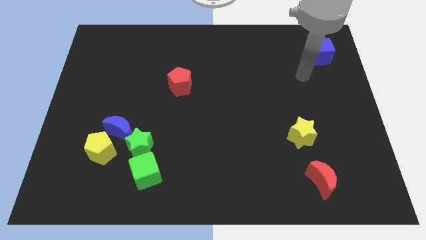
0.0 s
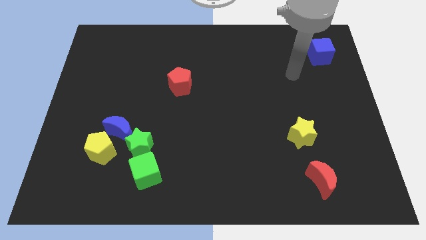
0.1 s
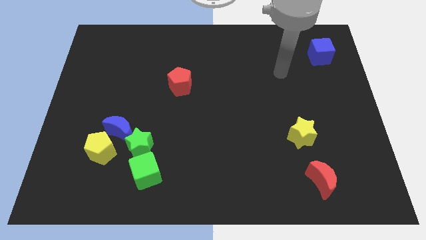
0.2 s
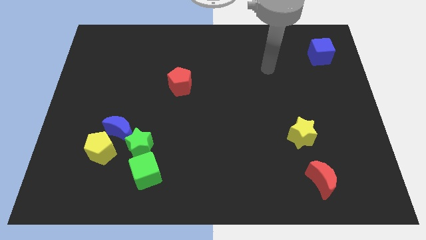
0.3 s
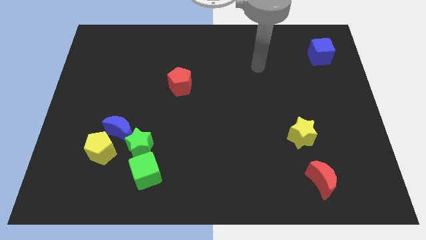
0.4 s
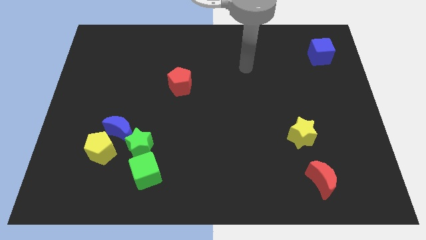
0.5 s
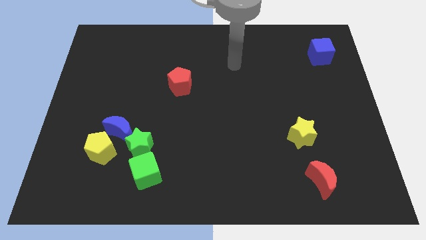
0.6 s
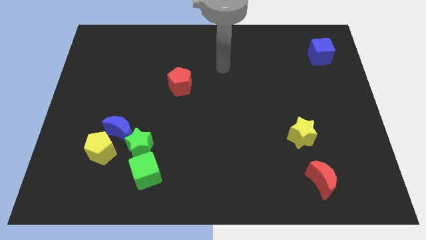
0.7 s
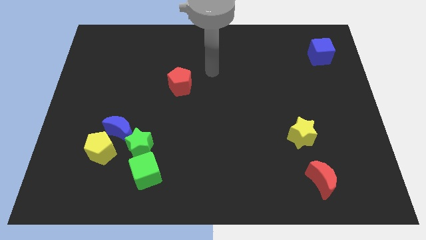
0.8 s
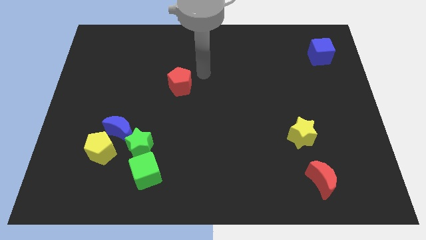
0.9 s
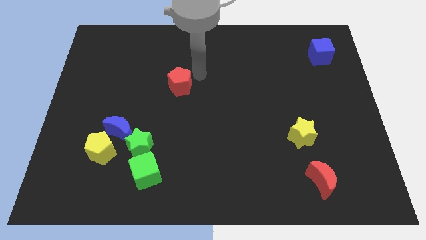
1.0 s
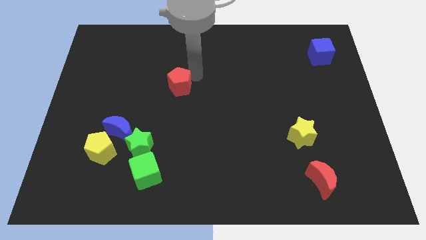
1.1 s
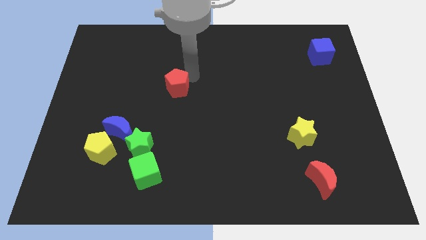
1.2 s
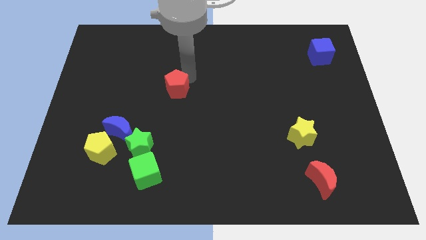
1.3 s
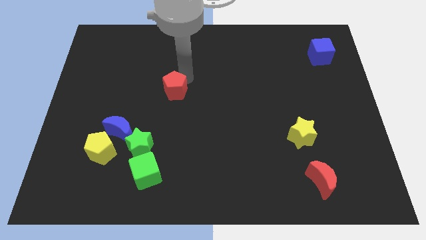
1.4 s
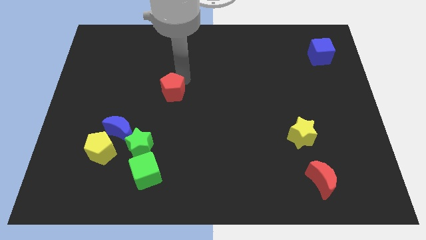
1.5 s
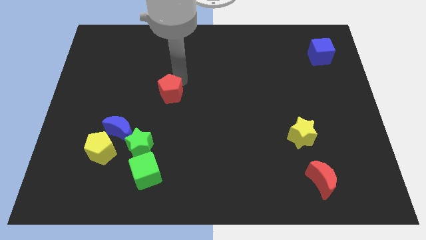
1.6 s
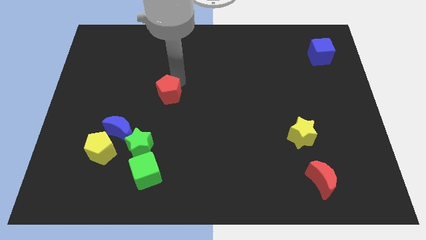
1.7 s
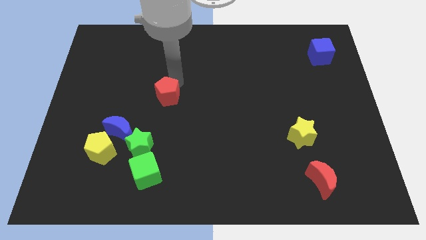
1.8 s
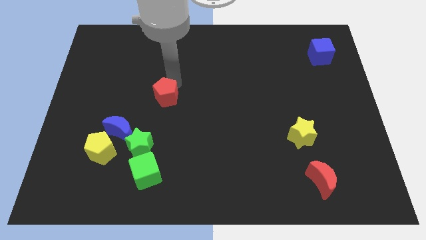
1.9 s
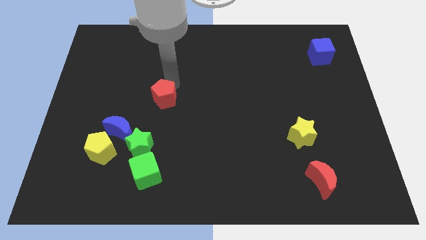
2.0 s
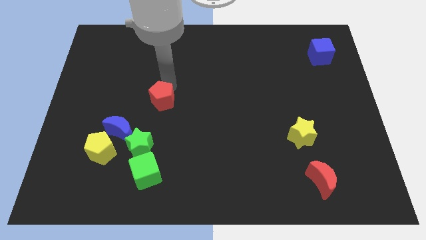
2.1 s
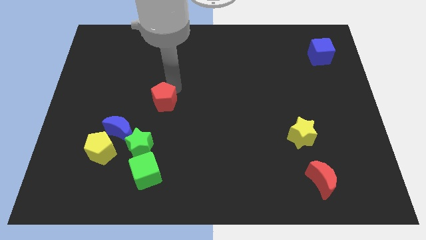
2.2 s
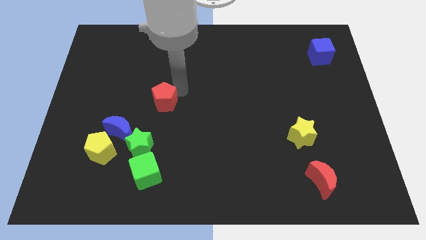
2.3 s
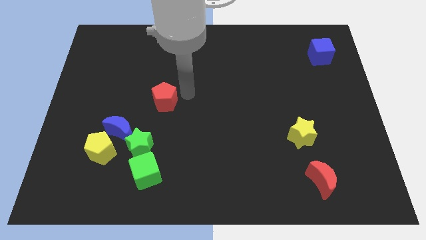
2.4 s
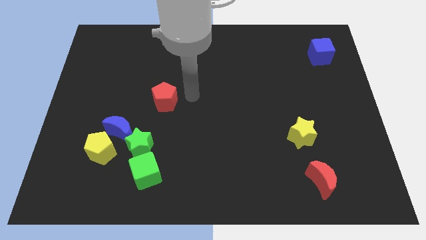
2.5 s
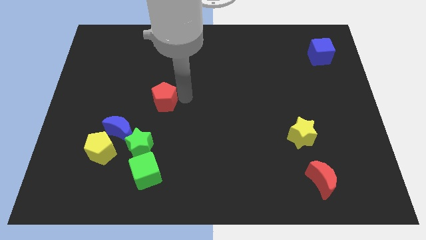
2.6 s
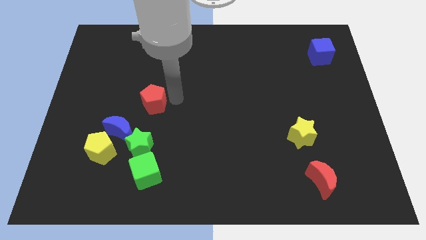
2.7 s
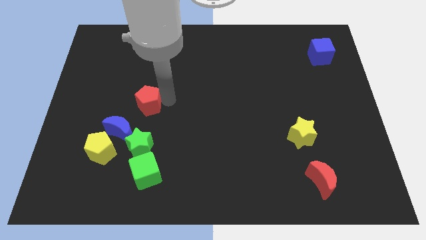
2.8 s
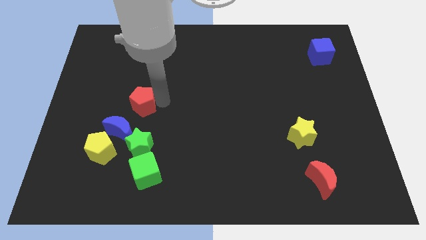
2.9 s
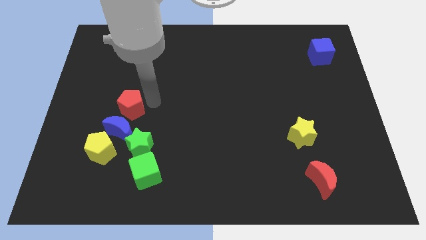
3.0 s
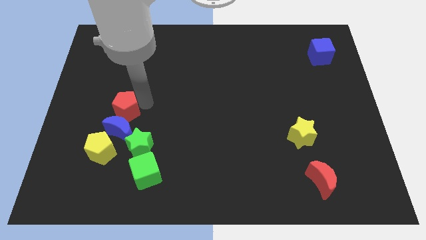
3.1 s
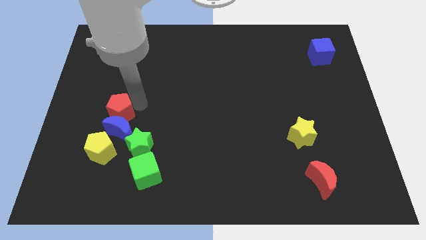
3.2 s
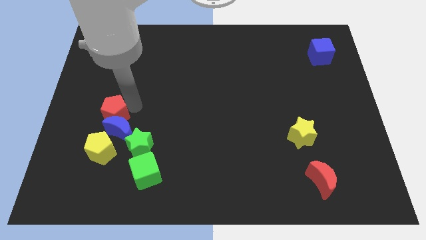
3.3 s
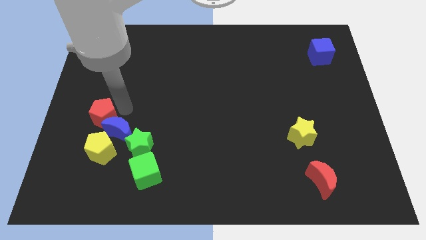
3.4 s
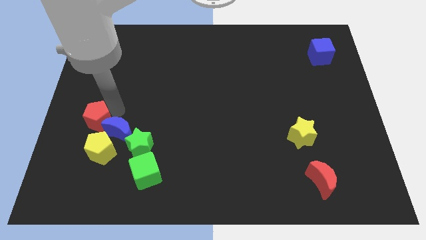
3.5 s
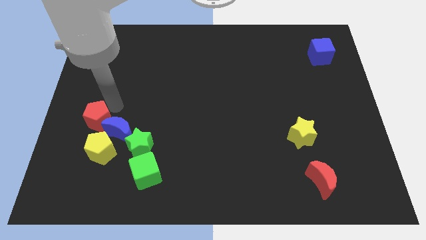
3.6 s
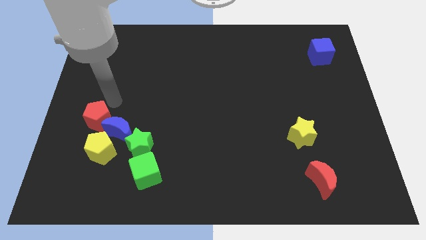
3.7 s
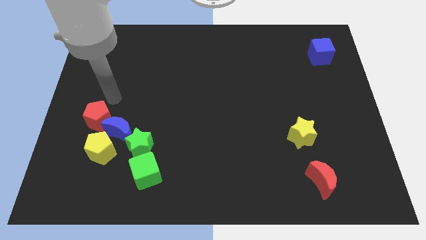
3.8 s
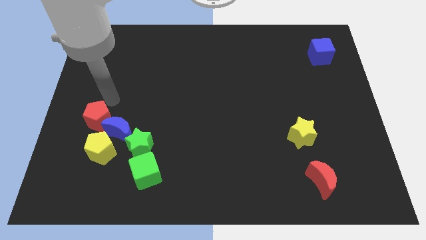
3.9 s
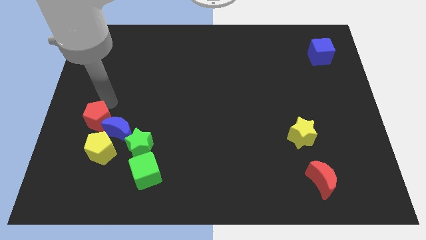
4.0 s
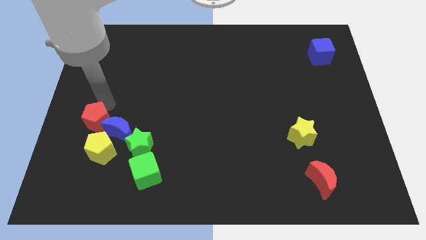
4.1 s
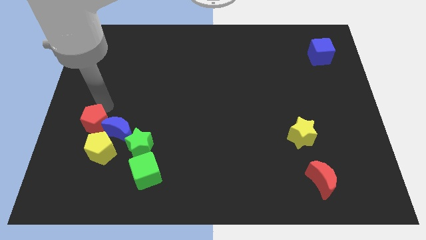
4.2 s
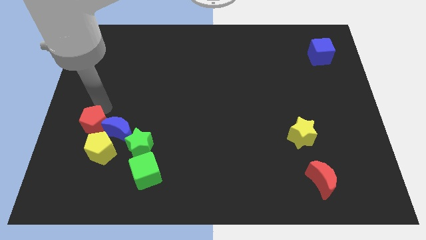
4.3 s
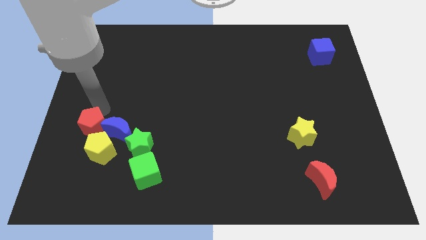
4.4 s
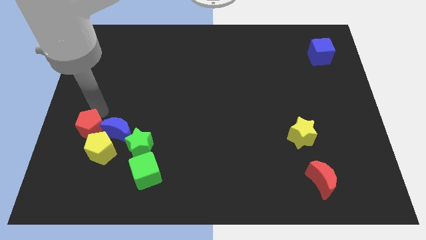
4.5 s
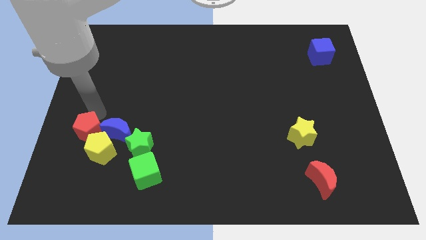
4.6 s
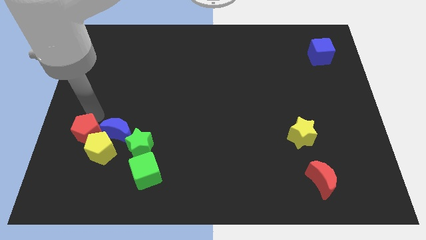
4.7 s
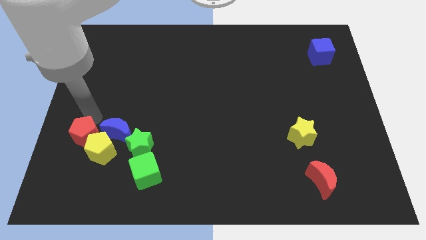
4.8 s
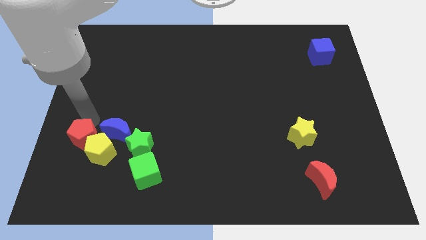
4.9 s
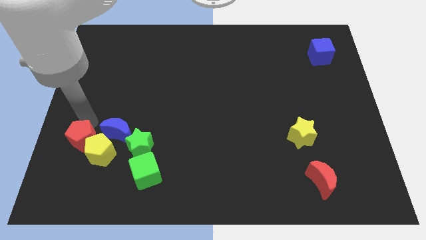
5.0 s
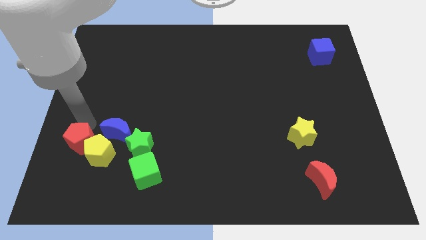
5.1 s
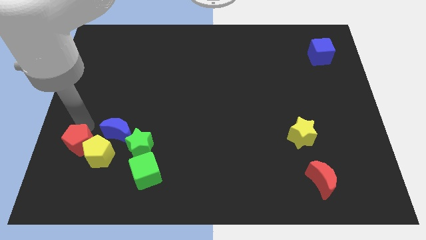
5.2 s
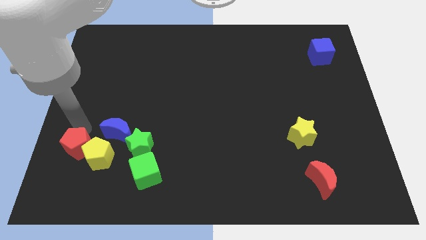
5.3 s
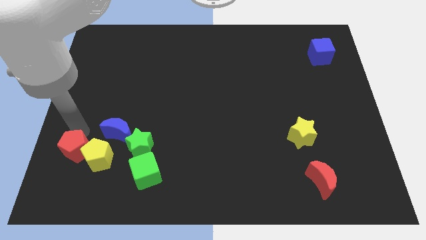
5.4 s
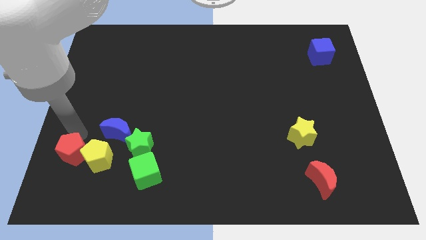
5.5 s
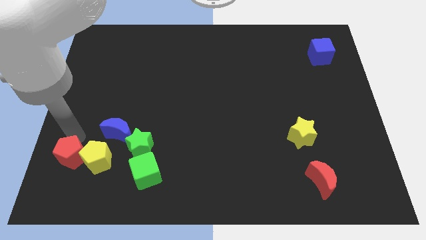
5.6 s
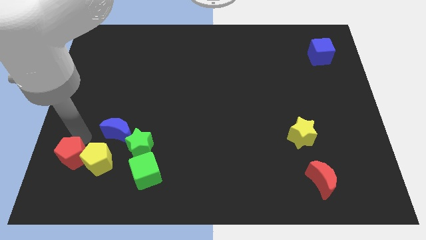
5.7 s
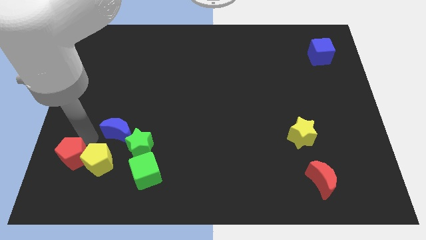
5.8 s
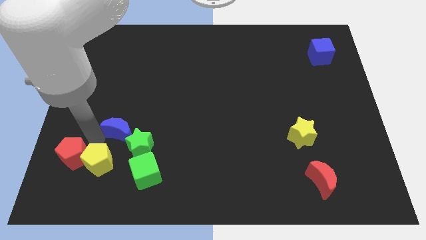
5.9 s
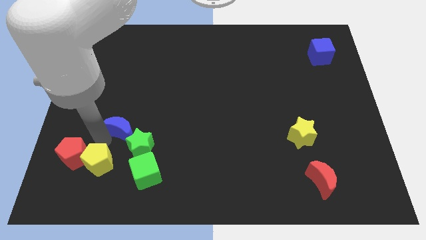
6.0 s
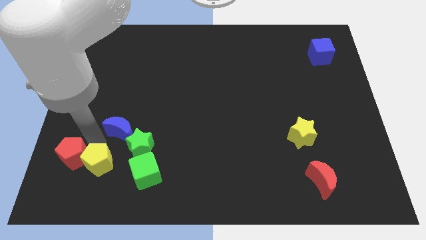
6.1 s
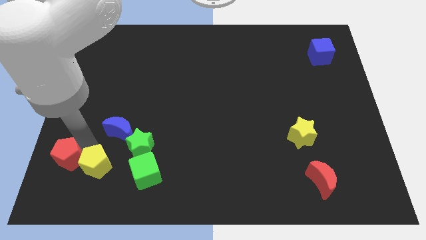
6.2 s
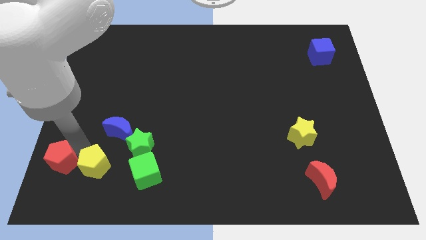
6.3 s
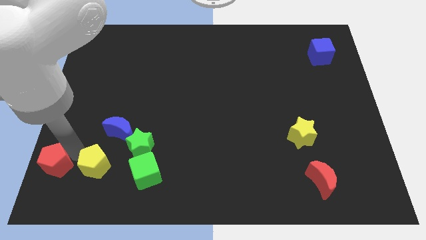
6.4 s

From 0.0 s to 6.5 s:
put the red pentagon to the bottom left

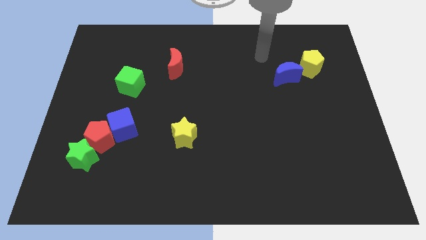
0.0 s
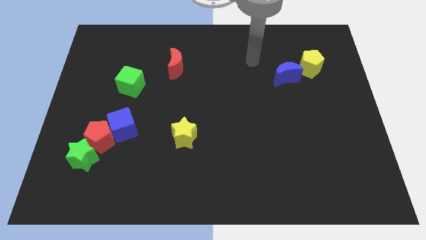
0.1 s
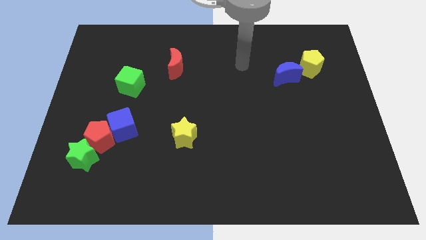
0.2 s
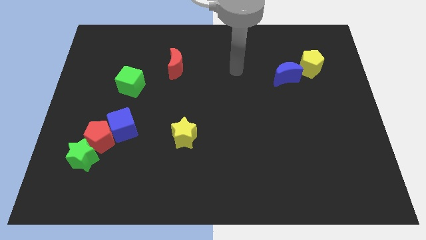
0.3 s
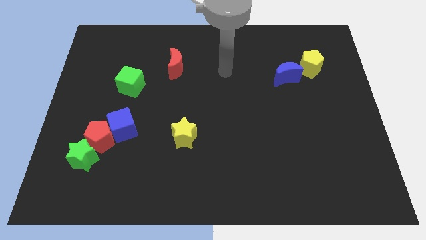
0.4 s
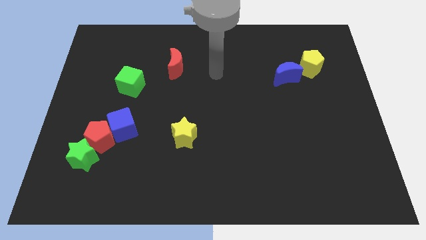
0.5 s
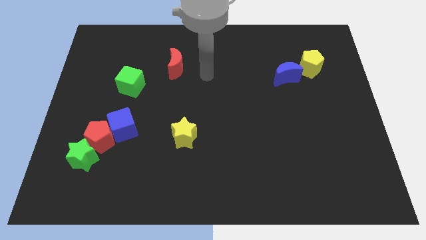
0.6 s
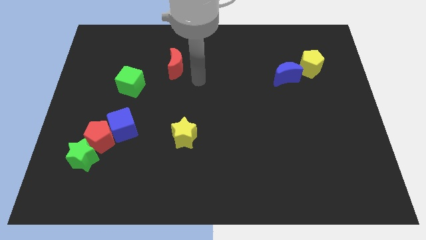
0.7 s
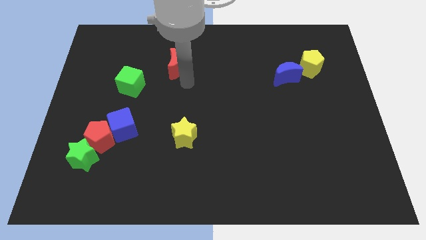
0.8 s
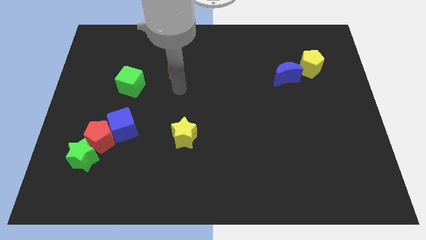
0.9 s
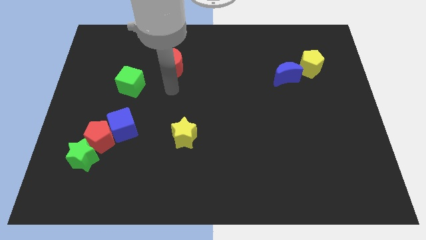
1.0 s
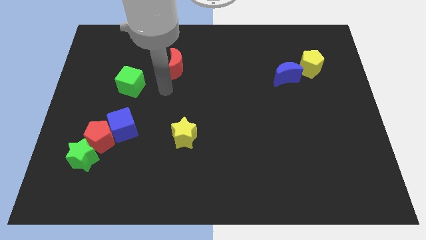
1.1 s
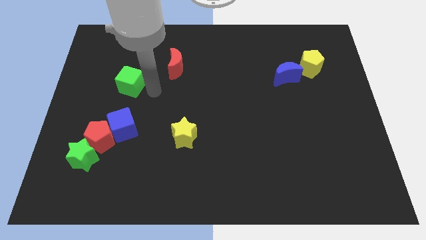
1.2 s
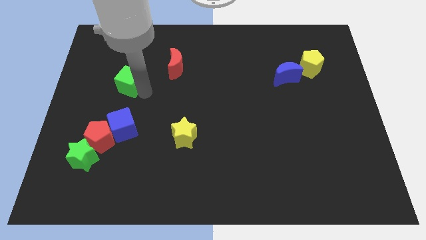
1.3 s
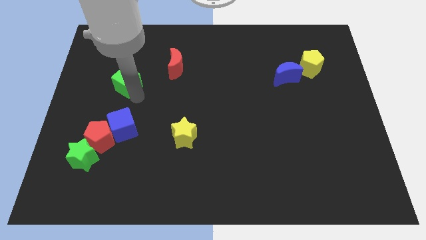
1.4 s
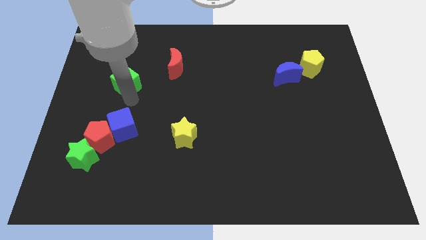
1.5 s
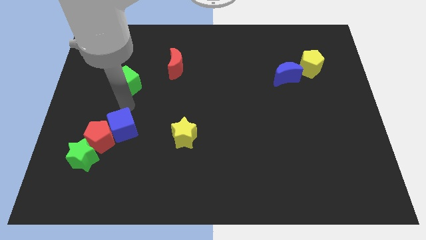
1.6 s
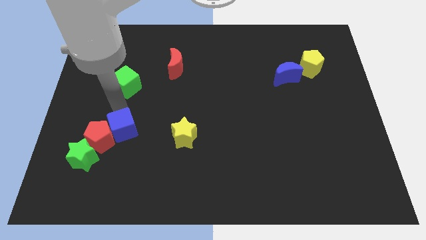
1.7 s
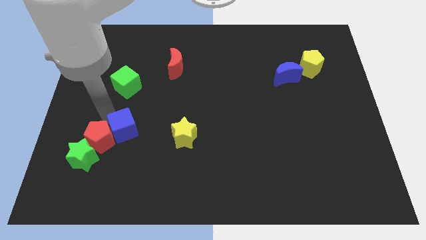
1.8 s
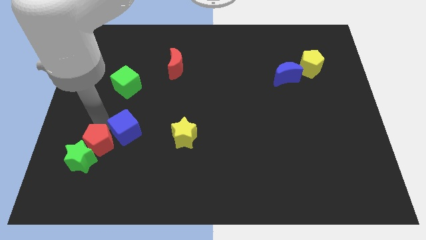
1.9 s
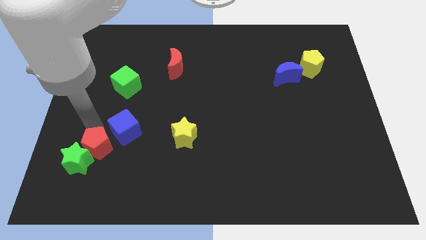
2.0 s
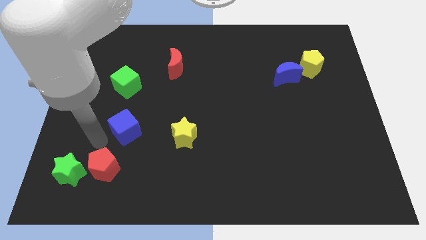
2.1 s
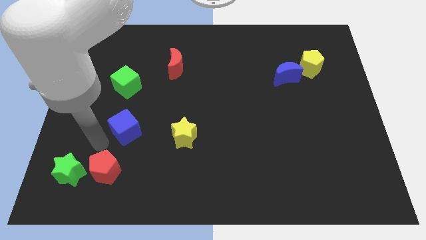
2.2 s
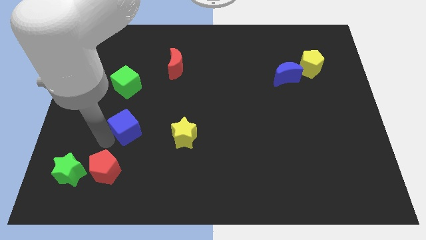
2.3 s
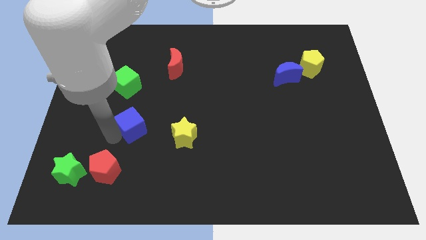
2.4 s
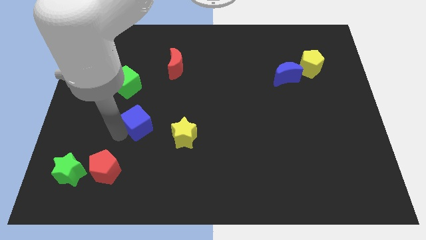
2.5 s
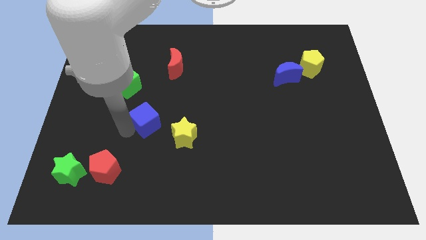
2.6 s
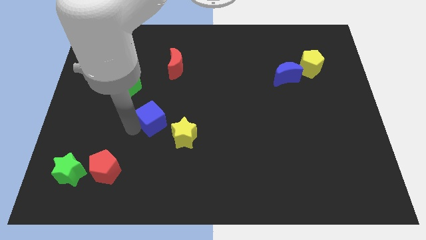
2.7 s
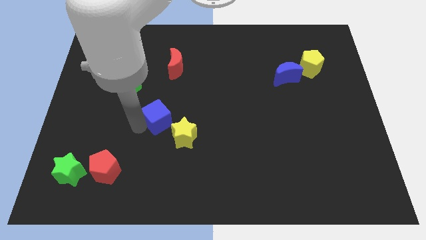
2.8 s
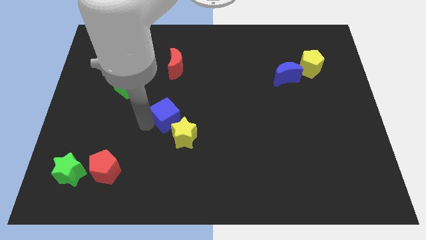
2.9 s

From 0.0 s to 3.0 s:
move the blue cube to the middle
